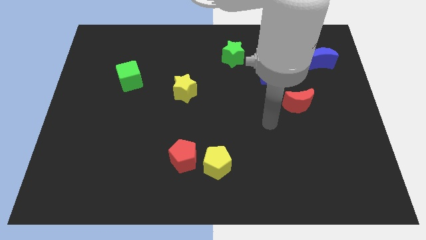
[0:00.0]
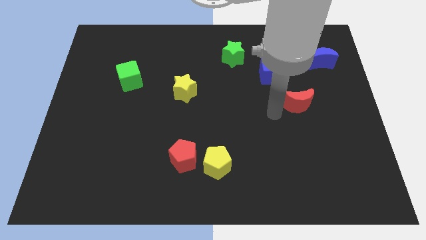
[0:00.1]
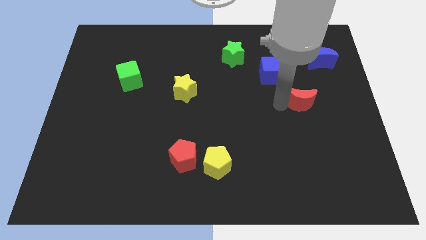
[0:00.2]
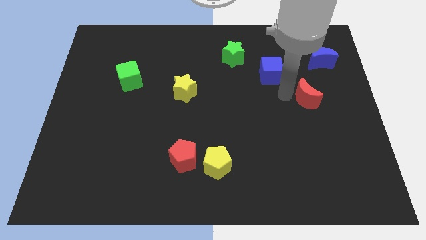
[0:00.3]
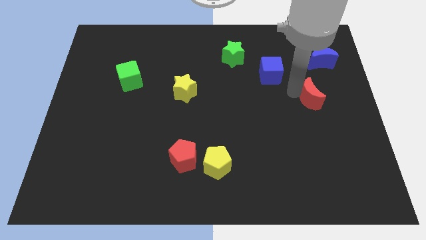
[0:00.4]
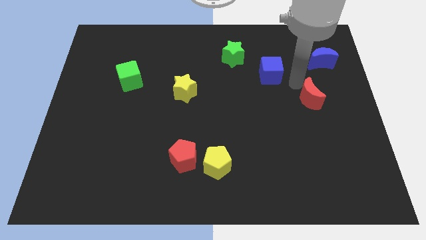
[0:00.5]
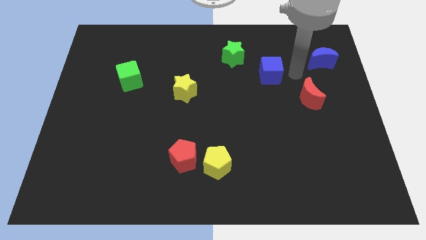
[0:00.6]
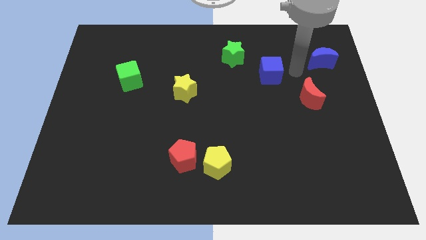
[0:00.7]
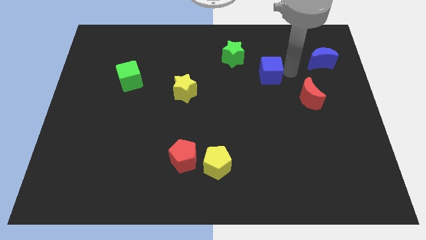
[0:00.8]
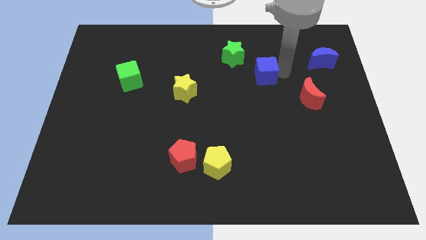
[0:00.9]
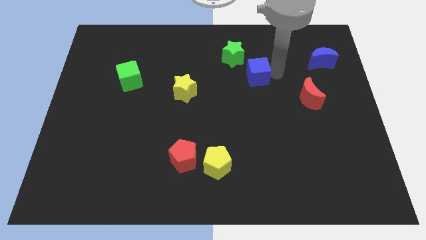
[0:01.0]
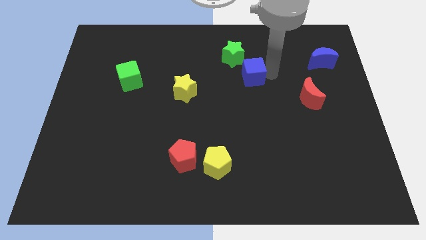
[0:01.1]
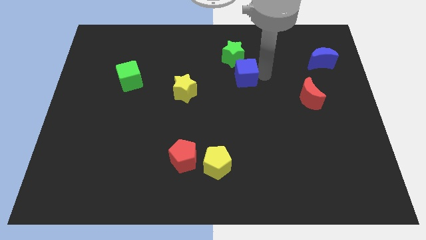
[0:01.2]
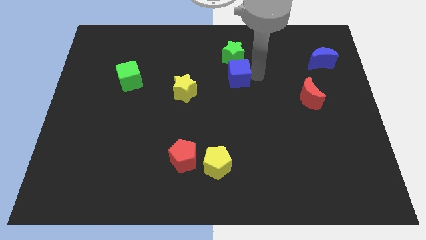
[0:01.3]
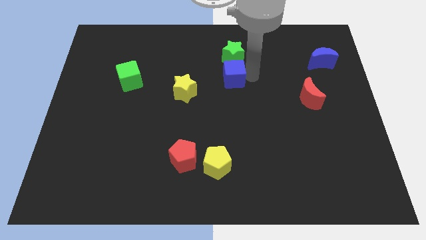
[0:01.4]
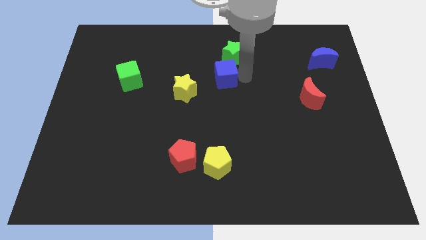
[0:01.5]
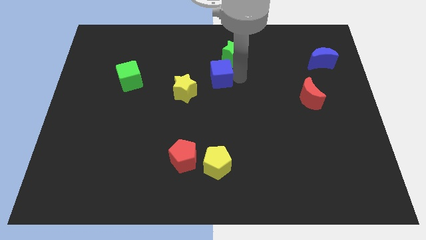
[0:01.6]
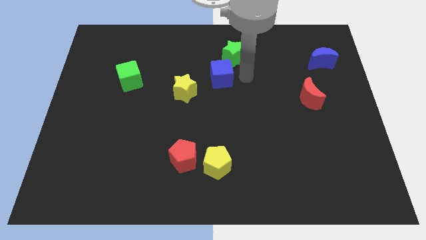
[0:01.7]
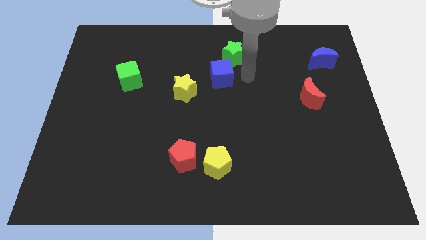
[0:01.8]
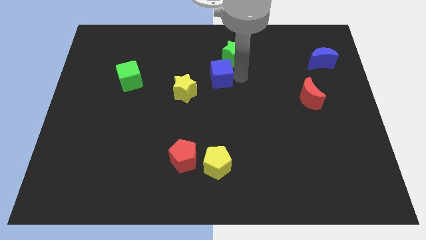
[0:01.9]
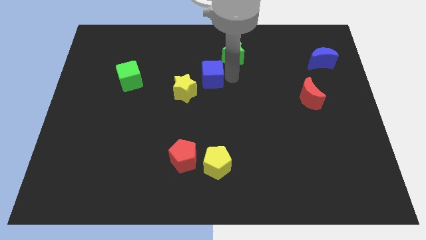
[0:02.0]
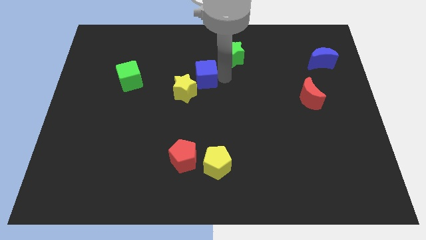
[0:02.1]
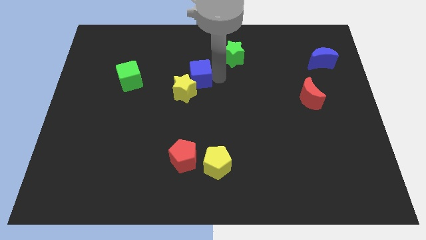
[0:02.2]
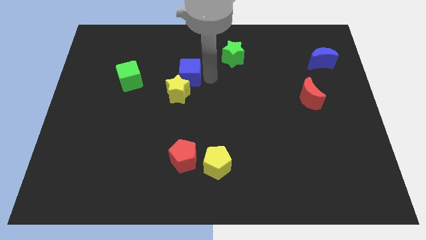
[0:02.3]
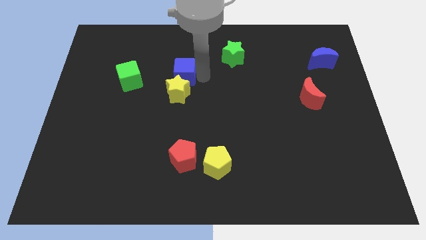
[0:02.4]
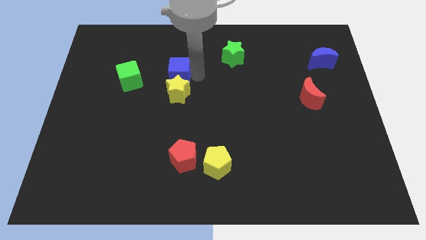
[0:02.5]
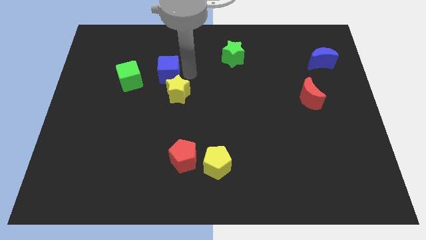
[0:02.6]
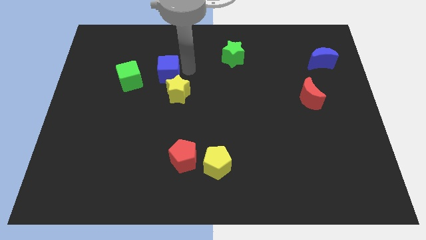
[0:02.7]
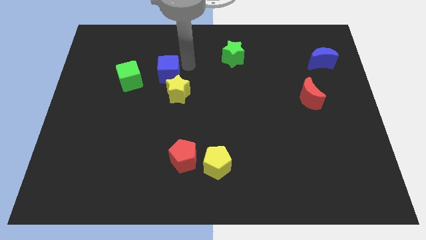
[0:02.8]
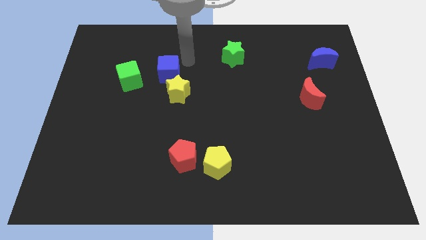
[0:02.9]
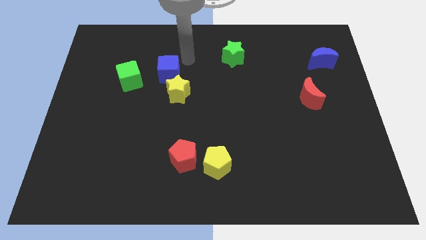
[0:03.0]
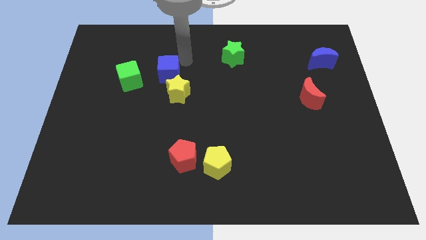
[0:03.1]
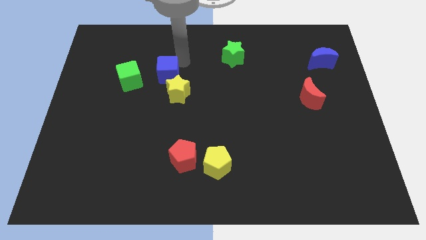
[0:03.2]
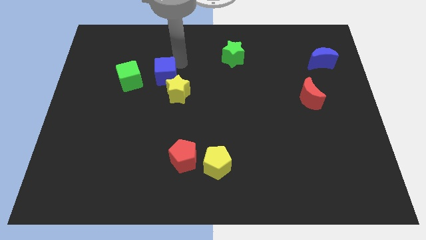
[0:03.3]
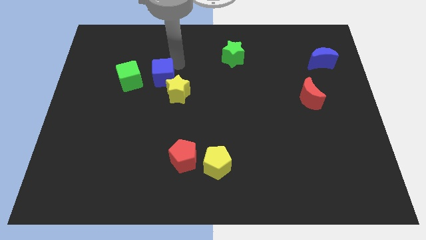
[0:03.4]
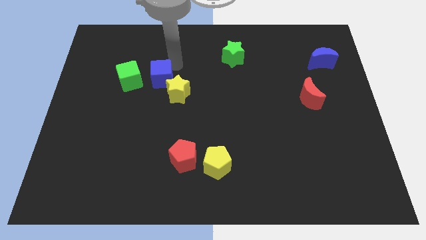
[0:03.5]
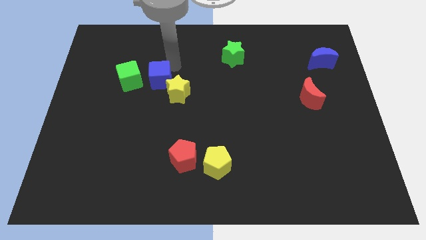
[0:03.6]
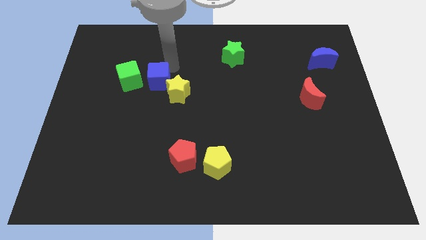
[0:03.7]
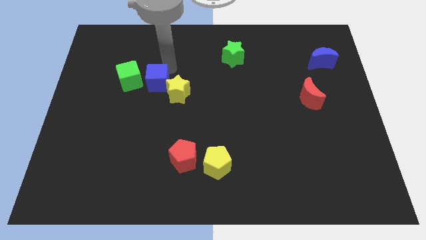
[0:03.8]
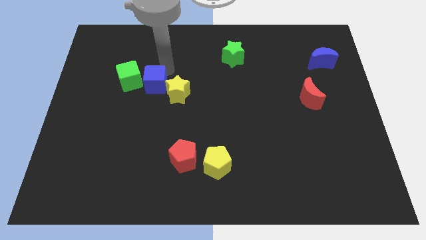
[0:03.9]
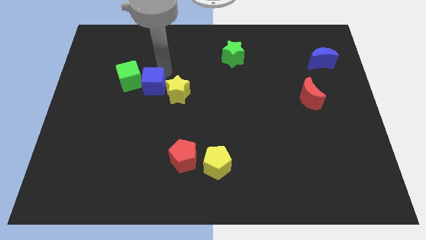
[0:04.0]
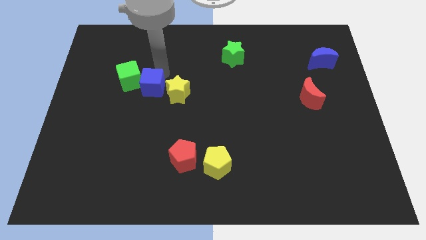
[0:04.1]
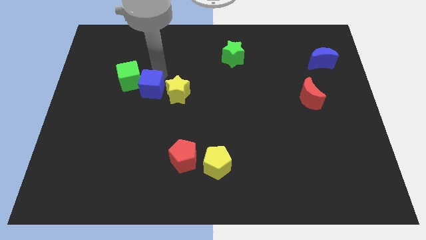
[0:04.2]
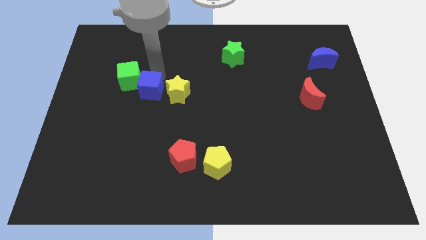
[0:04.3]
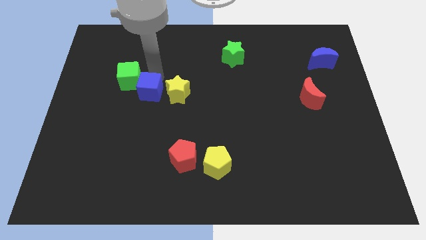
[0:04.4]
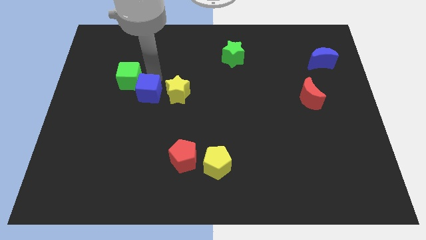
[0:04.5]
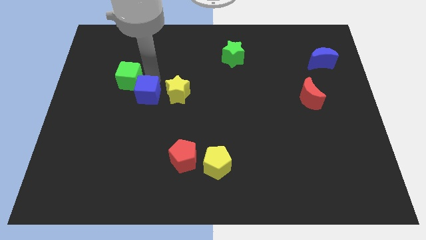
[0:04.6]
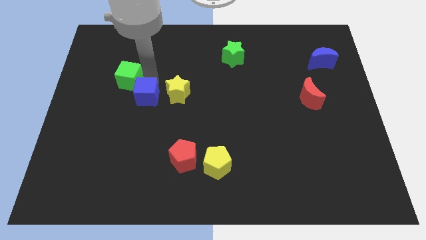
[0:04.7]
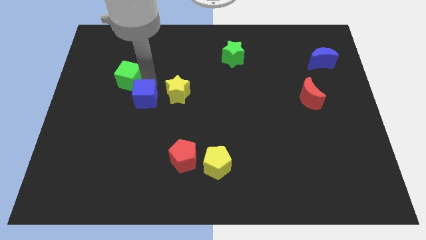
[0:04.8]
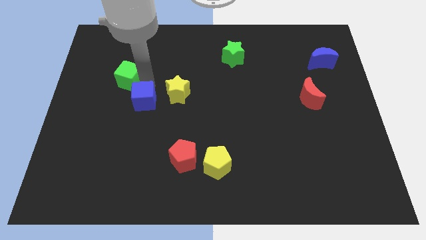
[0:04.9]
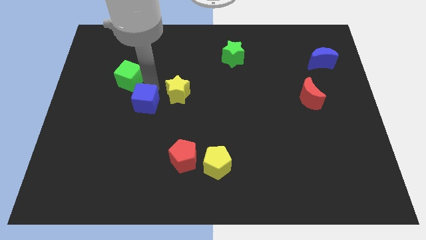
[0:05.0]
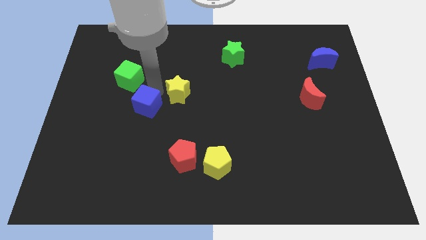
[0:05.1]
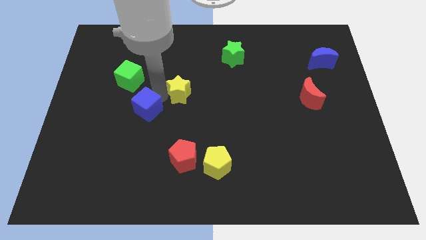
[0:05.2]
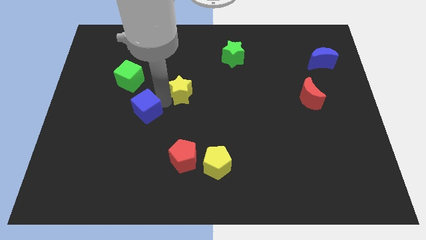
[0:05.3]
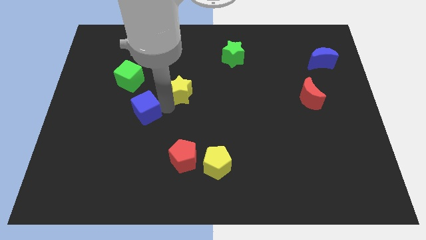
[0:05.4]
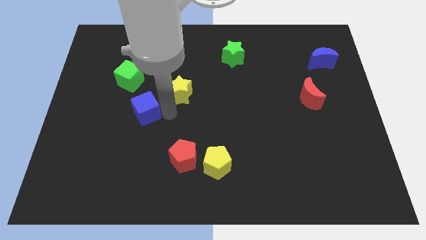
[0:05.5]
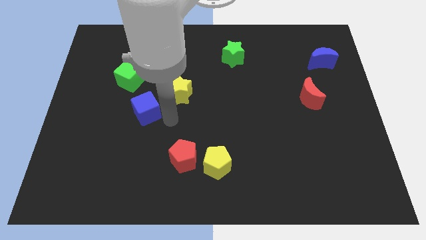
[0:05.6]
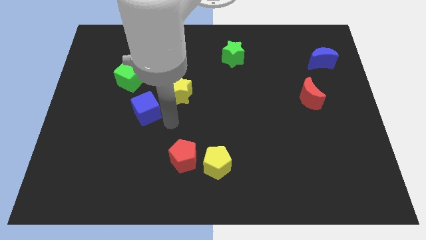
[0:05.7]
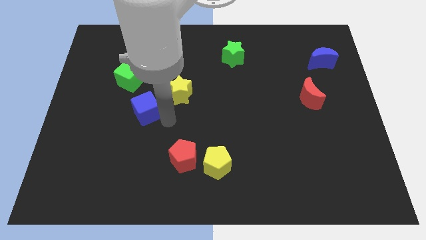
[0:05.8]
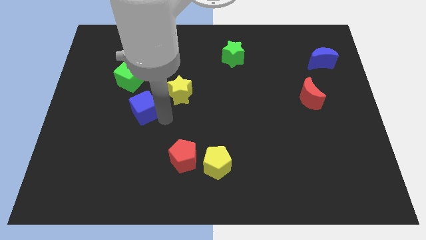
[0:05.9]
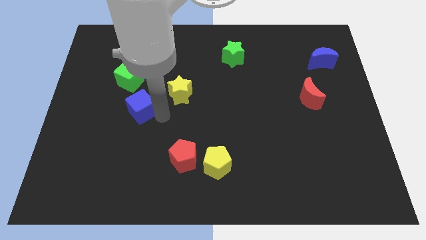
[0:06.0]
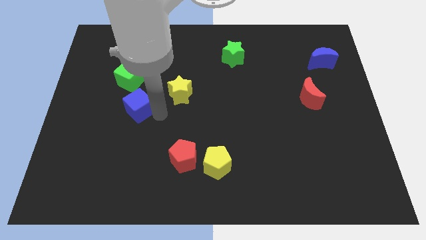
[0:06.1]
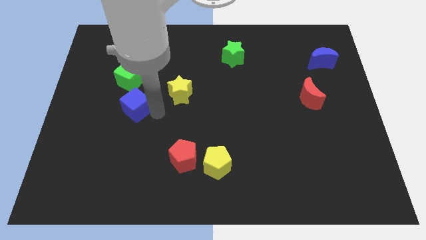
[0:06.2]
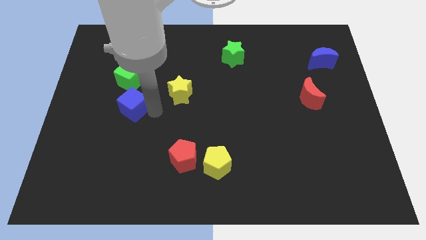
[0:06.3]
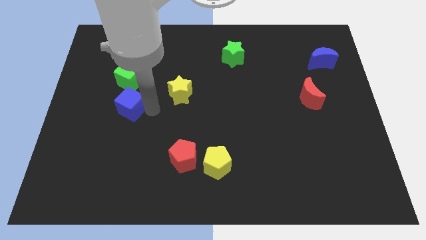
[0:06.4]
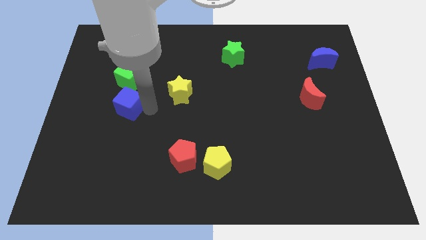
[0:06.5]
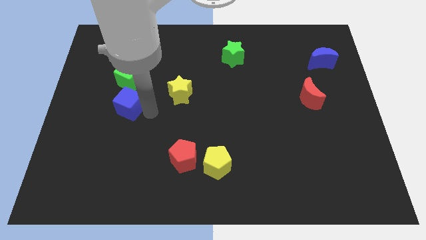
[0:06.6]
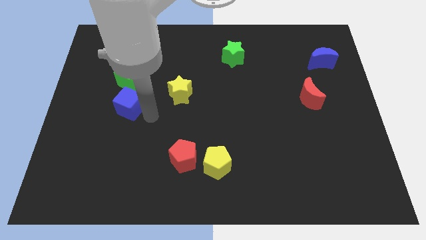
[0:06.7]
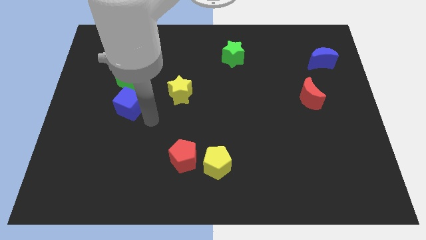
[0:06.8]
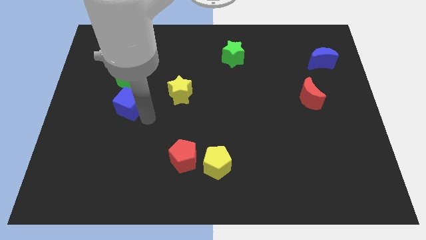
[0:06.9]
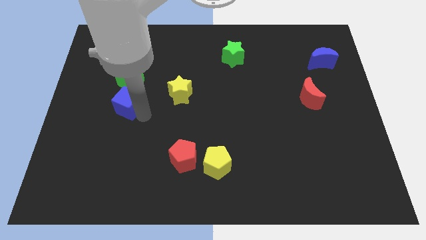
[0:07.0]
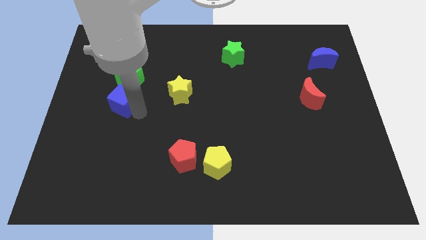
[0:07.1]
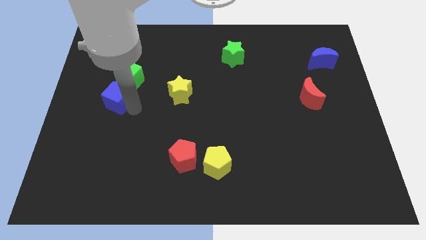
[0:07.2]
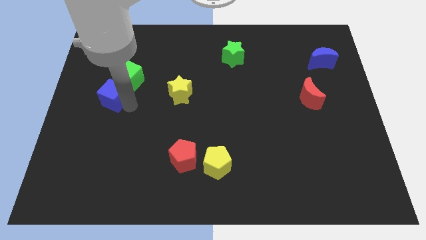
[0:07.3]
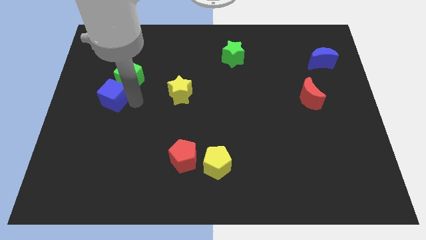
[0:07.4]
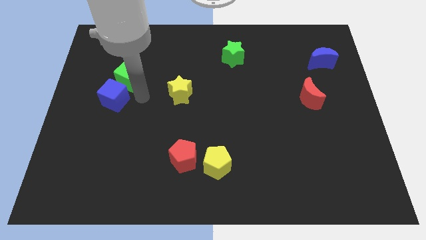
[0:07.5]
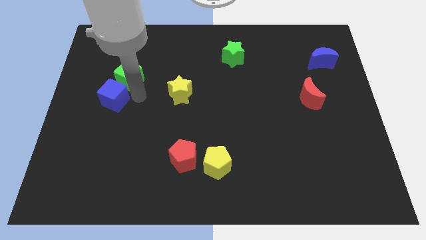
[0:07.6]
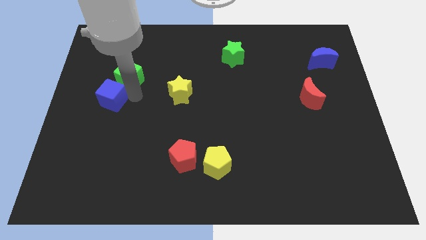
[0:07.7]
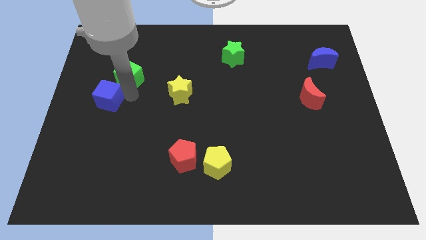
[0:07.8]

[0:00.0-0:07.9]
put the blue cube to the center left
